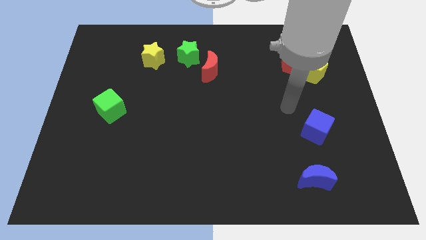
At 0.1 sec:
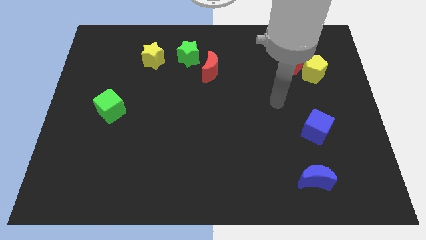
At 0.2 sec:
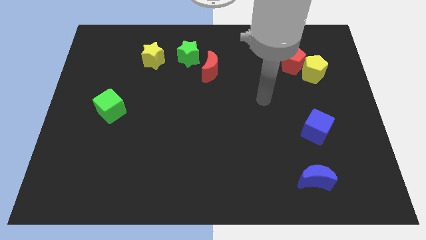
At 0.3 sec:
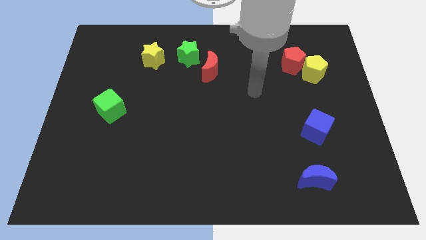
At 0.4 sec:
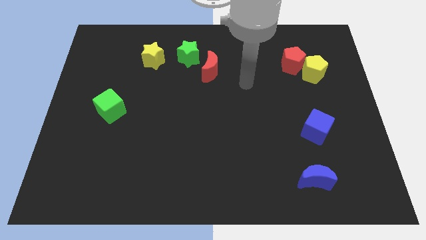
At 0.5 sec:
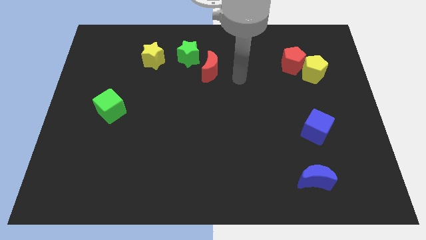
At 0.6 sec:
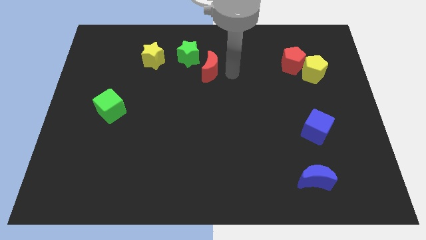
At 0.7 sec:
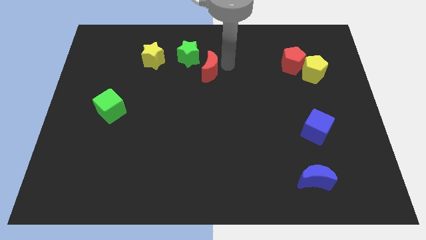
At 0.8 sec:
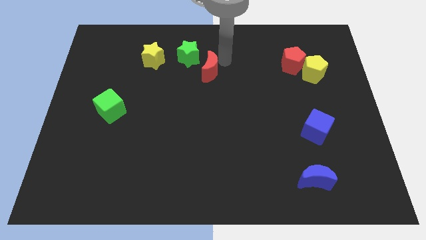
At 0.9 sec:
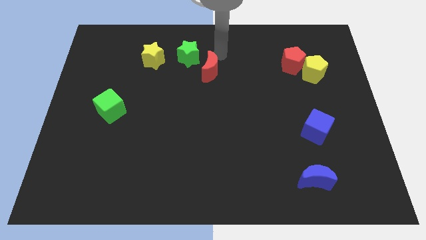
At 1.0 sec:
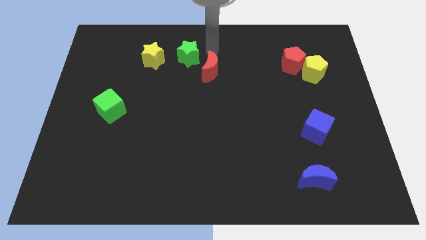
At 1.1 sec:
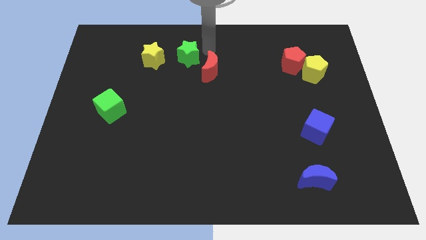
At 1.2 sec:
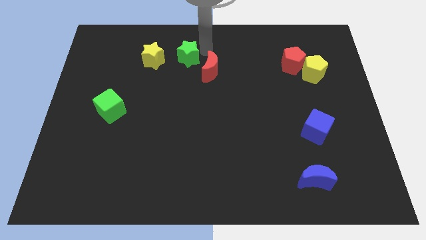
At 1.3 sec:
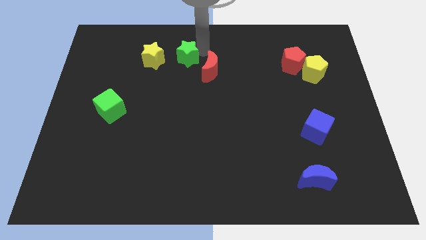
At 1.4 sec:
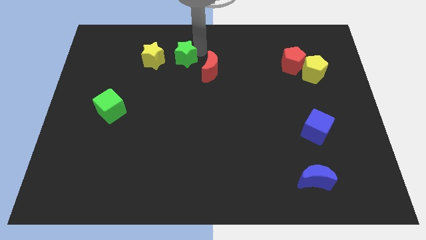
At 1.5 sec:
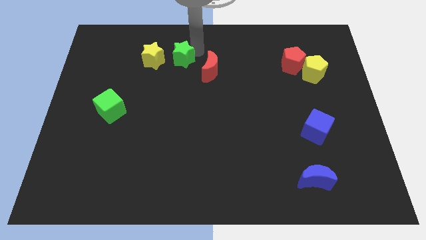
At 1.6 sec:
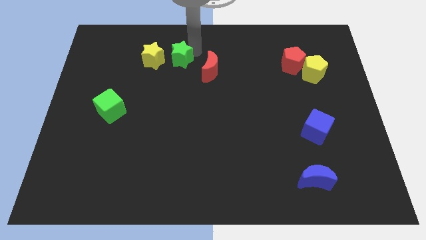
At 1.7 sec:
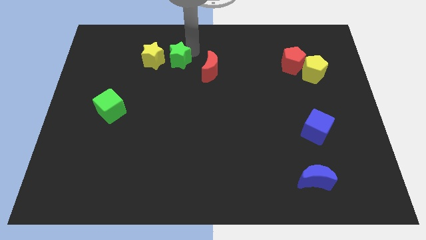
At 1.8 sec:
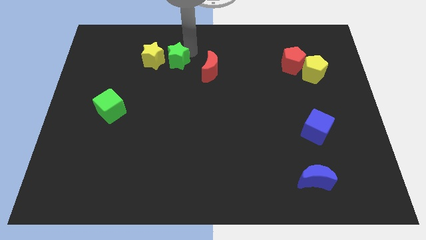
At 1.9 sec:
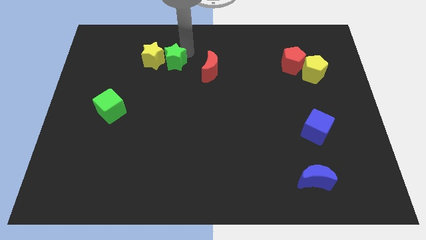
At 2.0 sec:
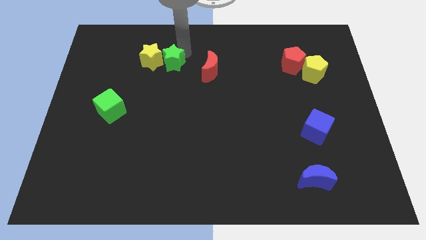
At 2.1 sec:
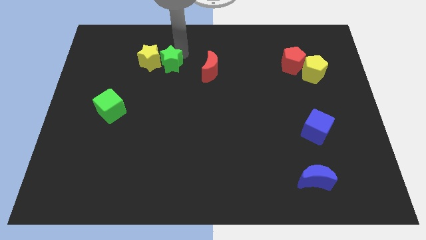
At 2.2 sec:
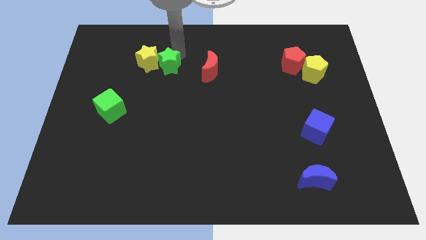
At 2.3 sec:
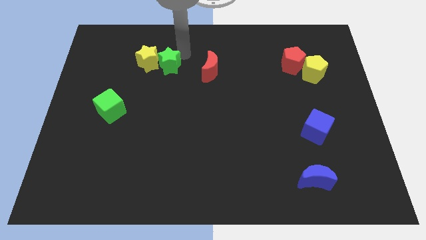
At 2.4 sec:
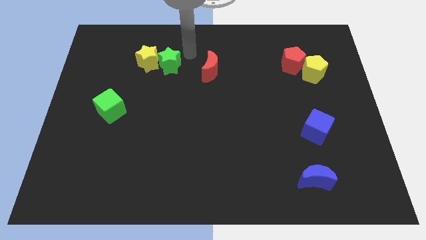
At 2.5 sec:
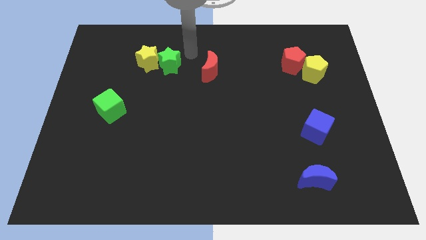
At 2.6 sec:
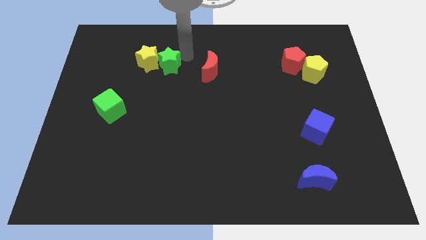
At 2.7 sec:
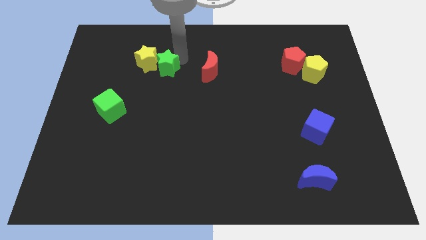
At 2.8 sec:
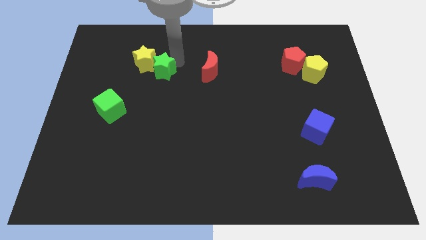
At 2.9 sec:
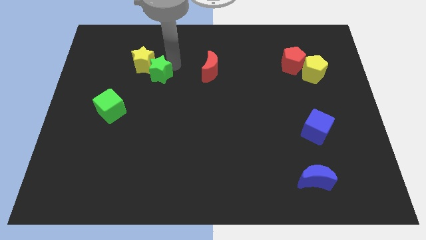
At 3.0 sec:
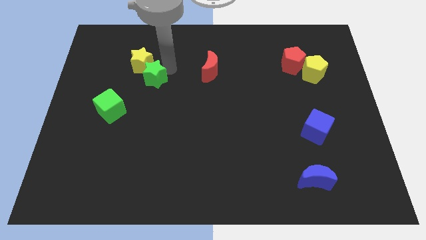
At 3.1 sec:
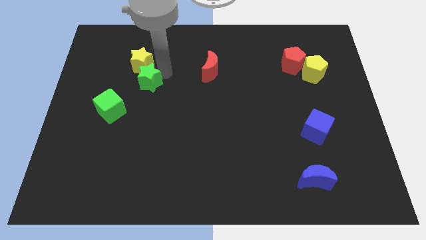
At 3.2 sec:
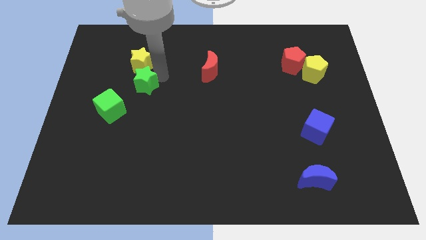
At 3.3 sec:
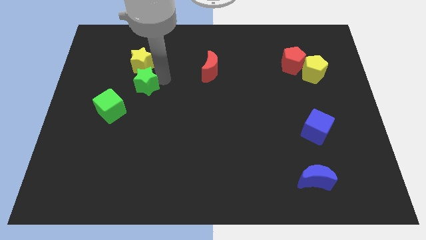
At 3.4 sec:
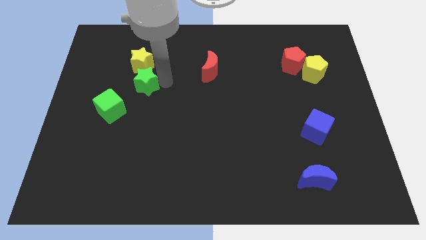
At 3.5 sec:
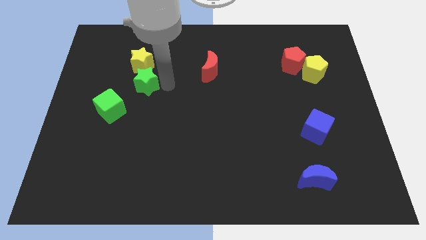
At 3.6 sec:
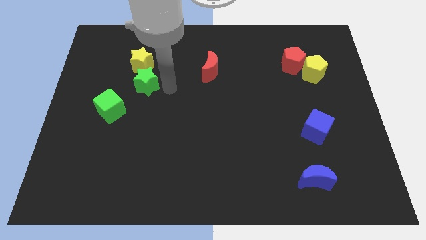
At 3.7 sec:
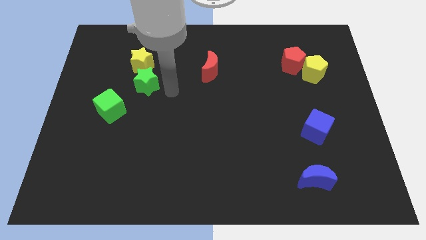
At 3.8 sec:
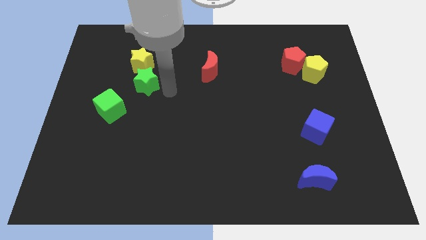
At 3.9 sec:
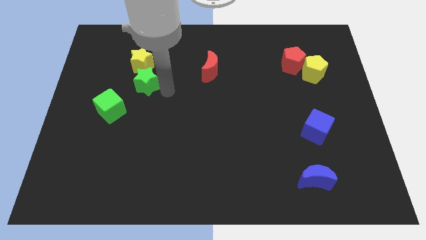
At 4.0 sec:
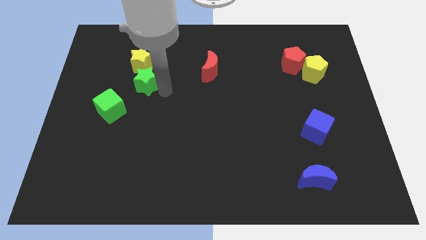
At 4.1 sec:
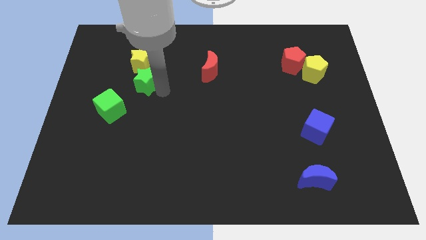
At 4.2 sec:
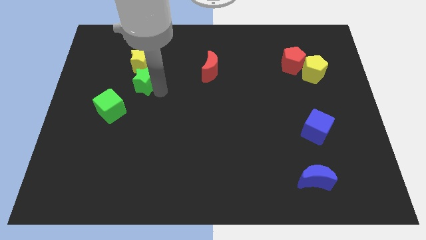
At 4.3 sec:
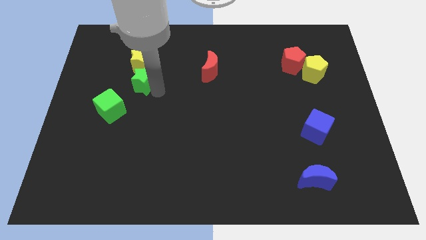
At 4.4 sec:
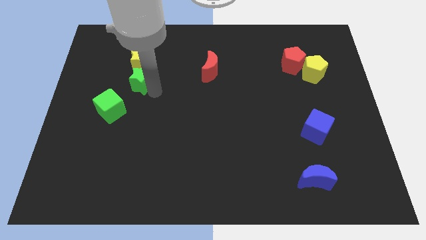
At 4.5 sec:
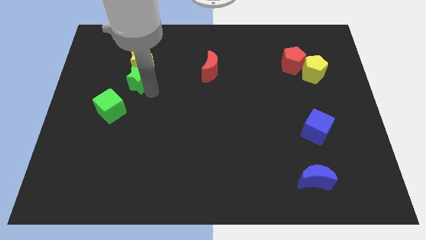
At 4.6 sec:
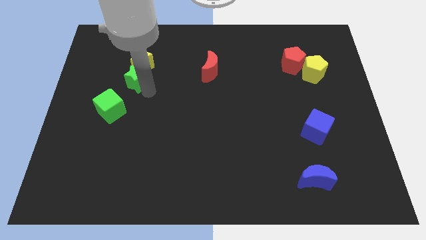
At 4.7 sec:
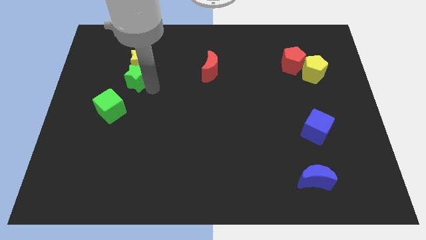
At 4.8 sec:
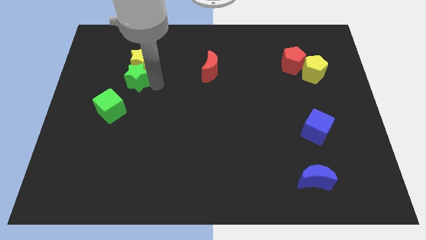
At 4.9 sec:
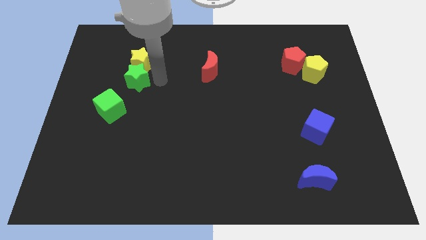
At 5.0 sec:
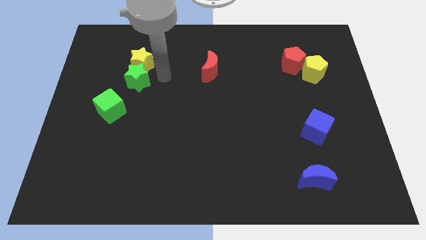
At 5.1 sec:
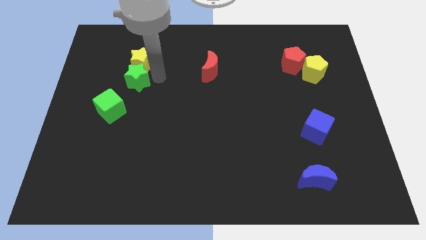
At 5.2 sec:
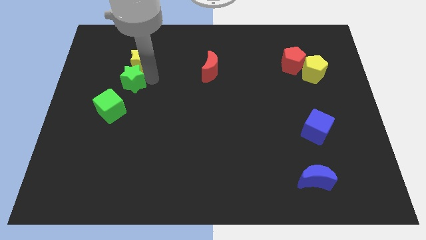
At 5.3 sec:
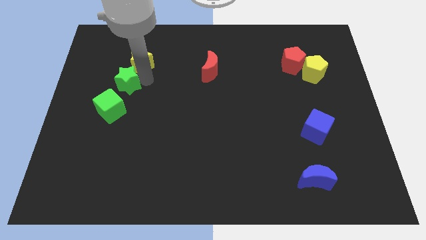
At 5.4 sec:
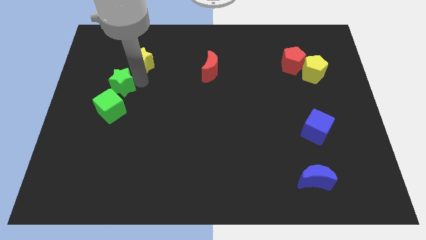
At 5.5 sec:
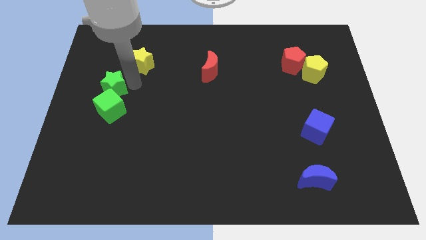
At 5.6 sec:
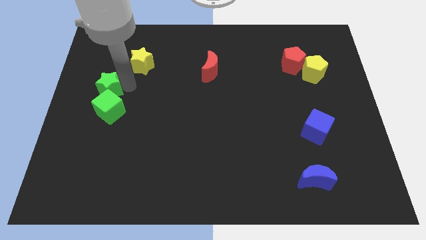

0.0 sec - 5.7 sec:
move the green star to the center left
